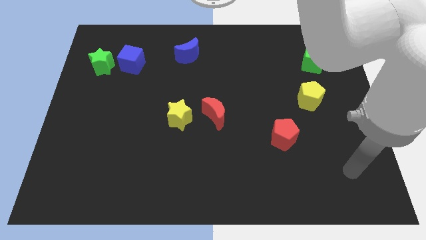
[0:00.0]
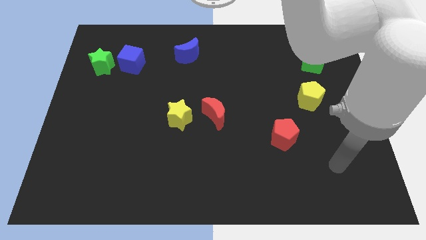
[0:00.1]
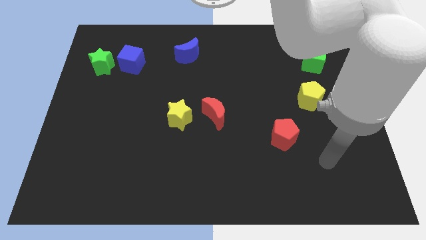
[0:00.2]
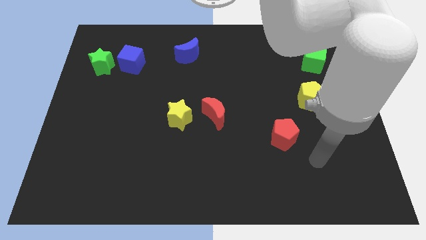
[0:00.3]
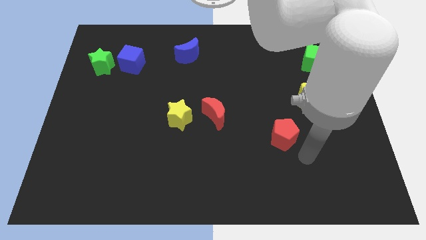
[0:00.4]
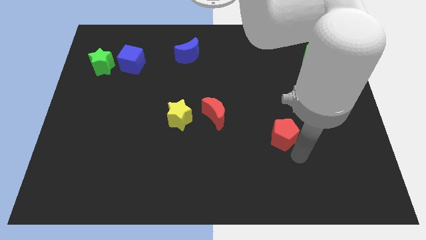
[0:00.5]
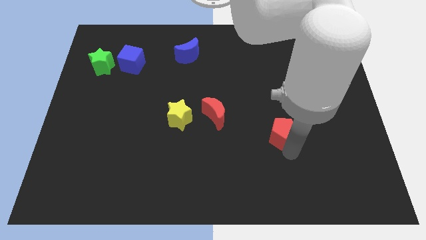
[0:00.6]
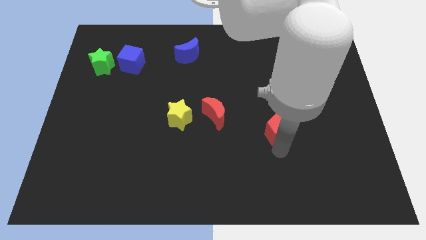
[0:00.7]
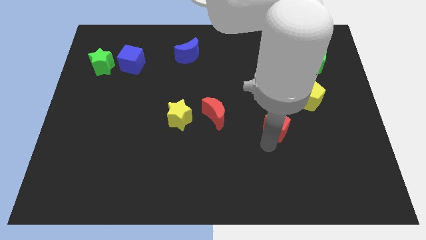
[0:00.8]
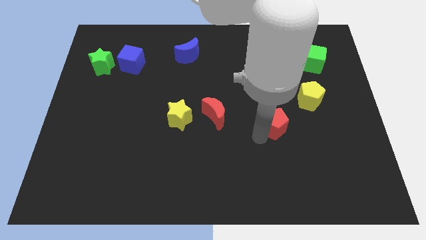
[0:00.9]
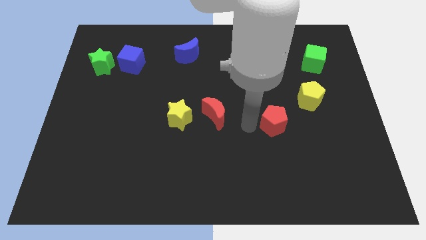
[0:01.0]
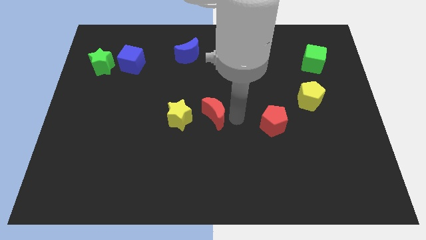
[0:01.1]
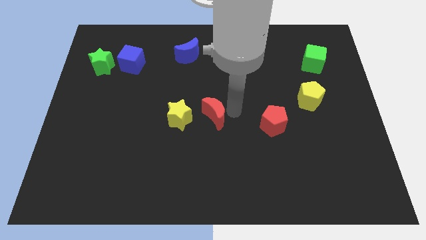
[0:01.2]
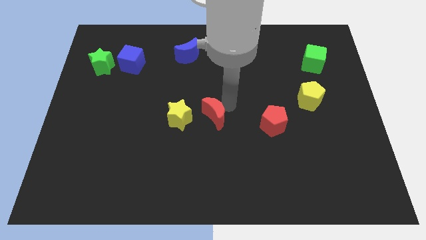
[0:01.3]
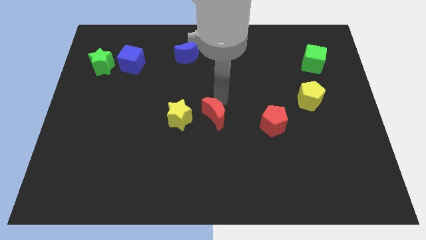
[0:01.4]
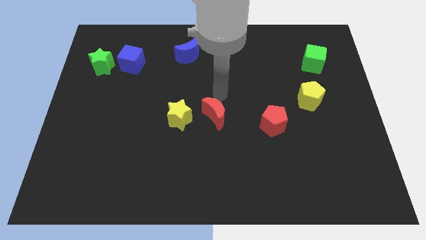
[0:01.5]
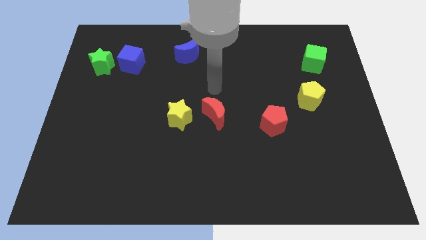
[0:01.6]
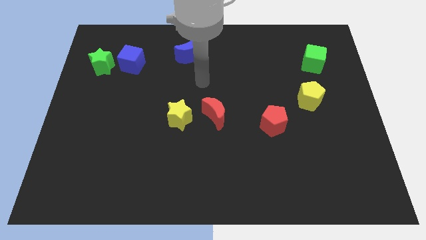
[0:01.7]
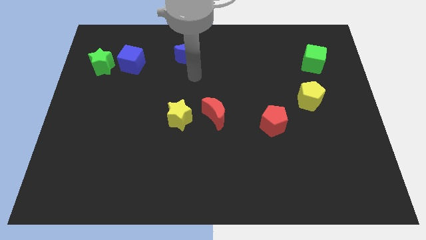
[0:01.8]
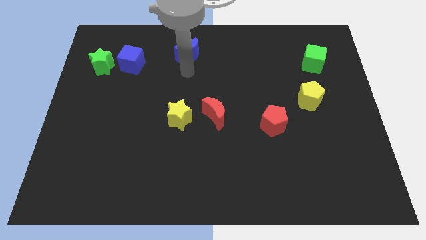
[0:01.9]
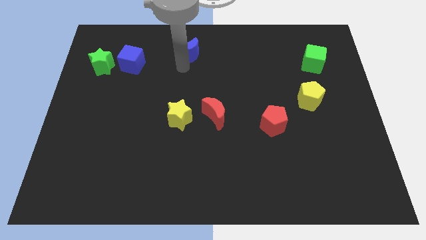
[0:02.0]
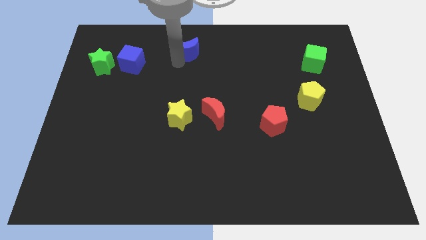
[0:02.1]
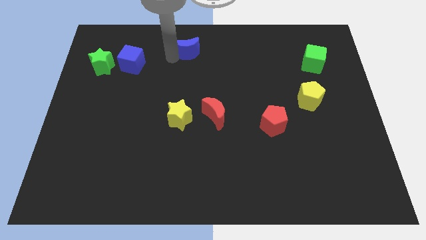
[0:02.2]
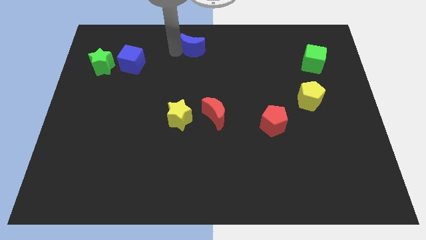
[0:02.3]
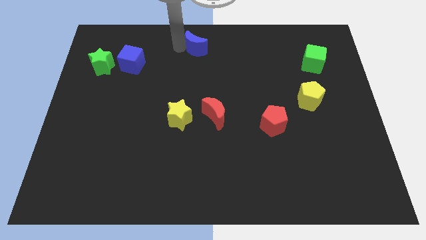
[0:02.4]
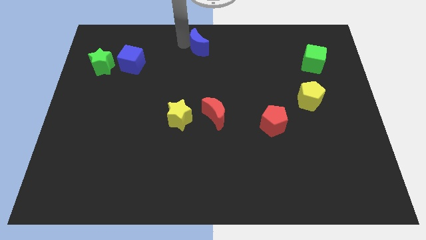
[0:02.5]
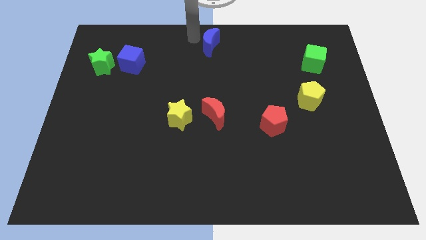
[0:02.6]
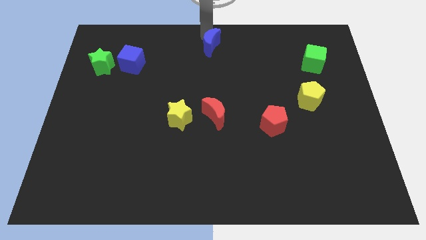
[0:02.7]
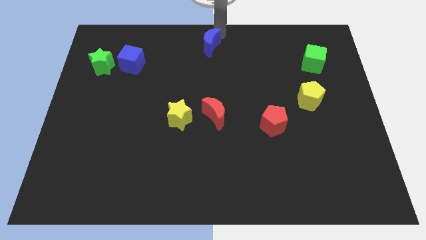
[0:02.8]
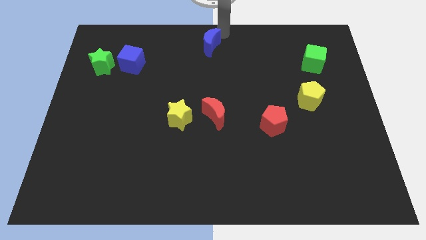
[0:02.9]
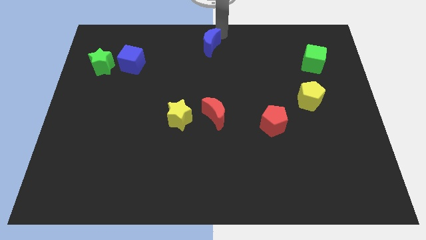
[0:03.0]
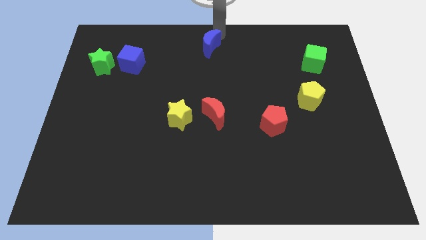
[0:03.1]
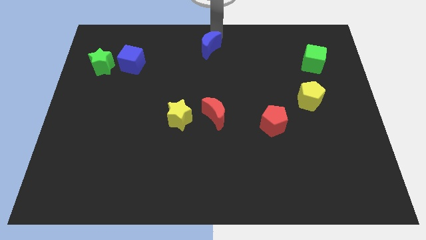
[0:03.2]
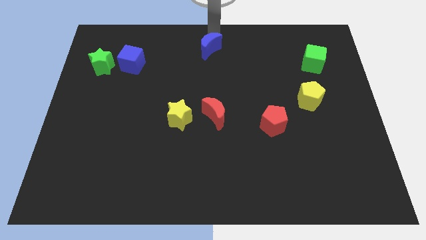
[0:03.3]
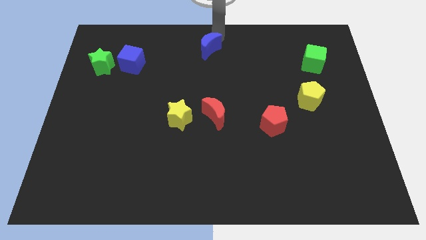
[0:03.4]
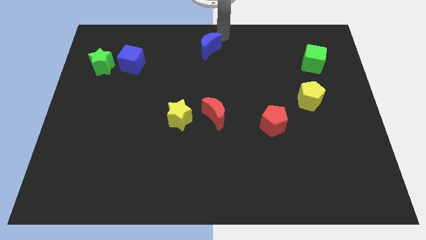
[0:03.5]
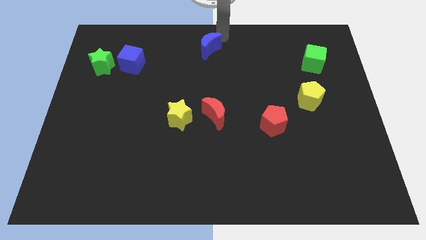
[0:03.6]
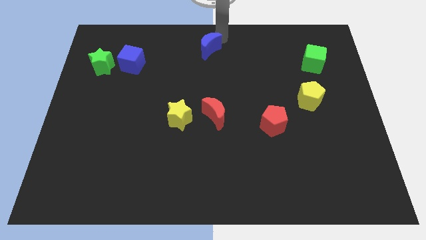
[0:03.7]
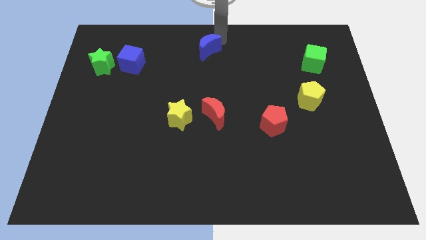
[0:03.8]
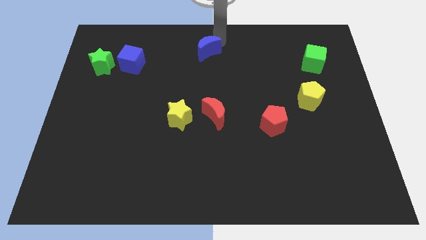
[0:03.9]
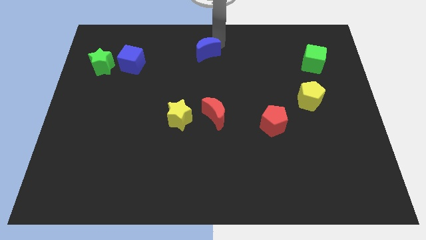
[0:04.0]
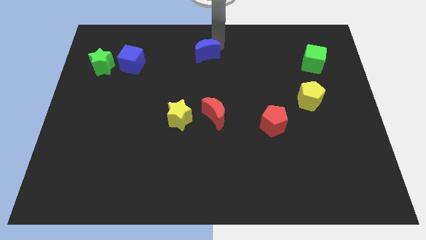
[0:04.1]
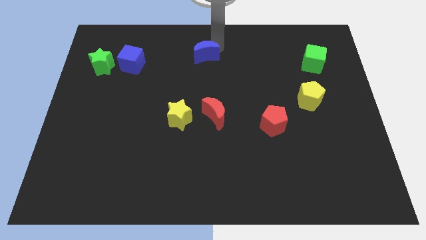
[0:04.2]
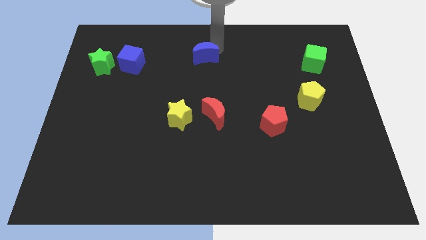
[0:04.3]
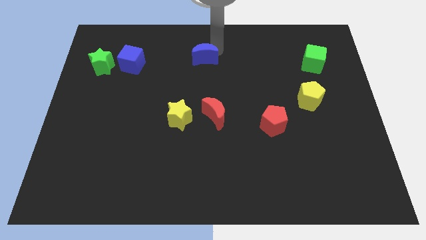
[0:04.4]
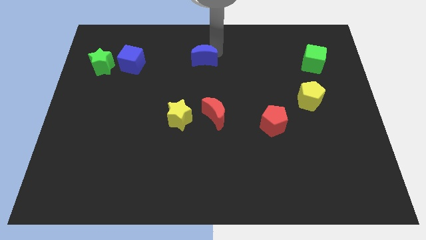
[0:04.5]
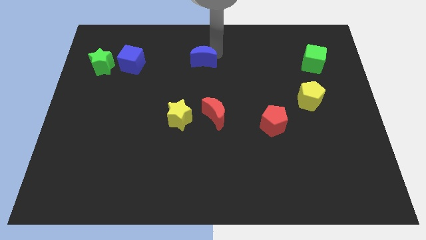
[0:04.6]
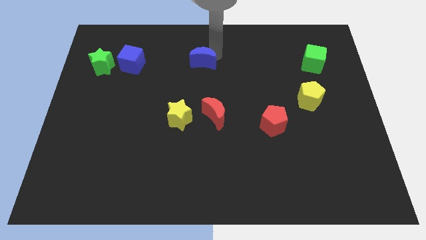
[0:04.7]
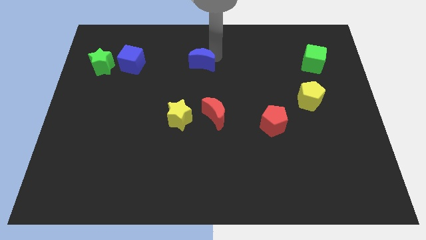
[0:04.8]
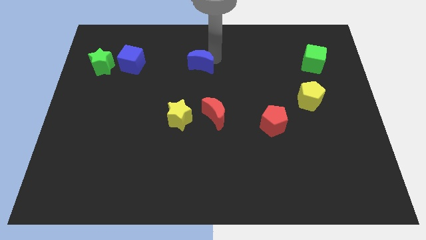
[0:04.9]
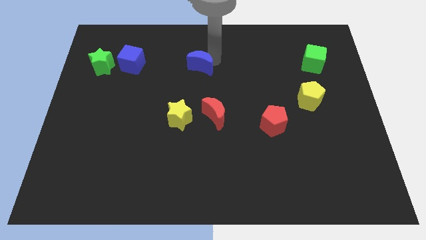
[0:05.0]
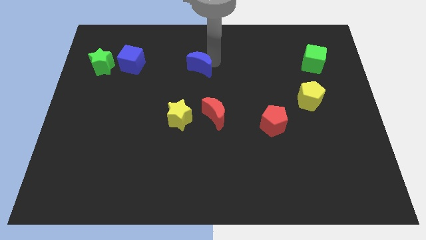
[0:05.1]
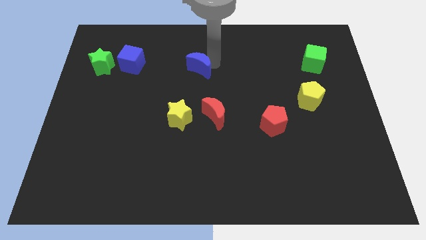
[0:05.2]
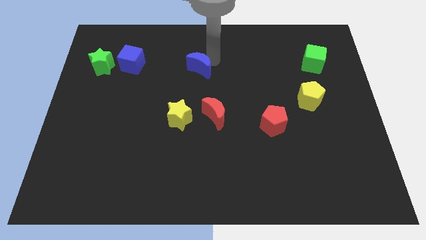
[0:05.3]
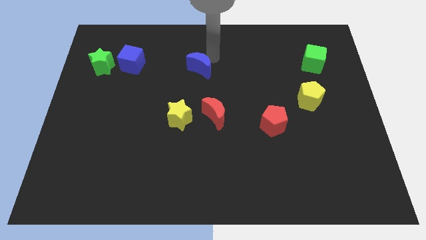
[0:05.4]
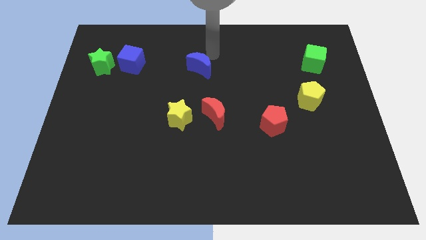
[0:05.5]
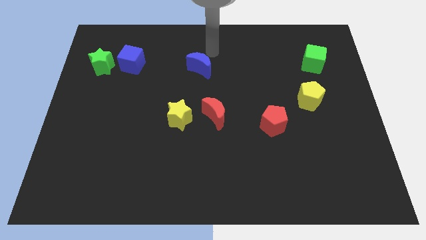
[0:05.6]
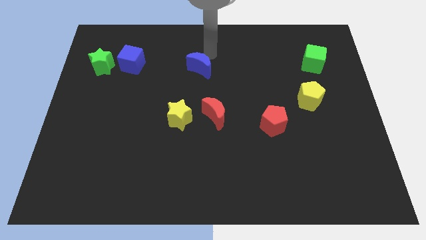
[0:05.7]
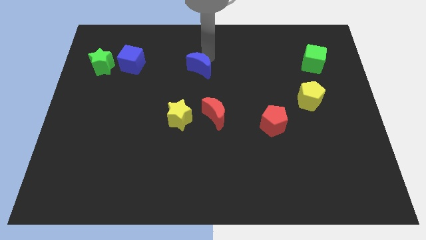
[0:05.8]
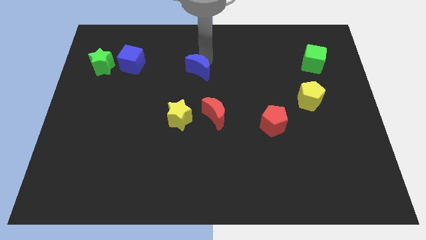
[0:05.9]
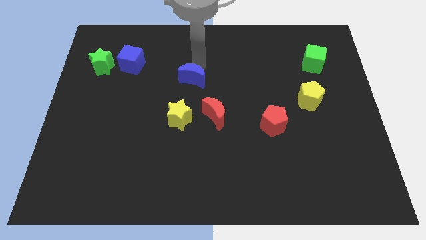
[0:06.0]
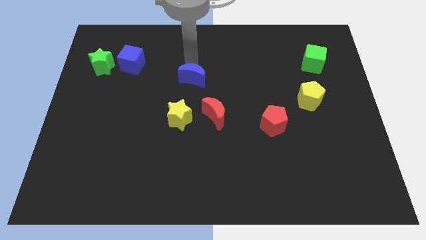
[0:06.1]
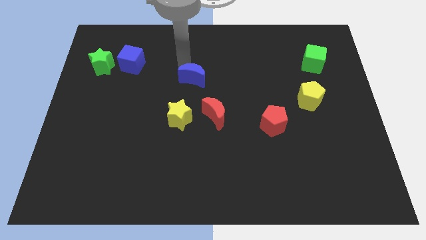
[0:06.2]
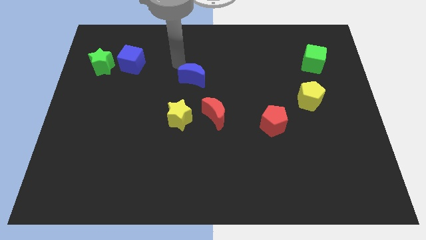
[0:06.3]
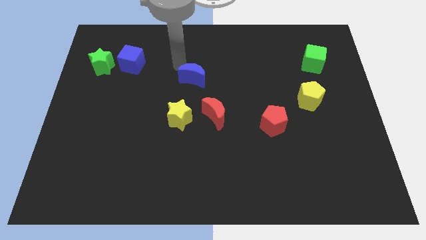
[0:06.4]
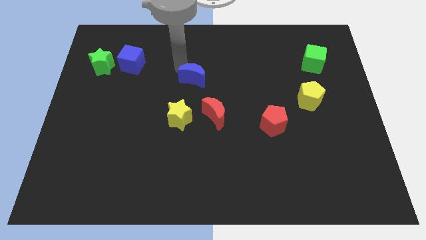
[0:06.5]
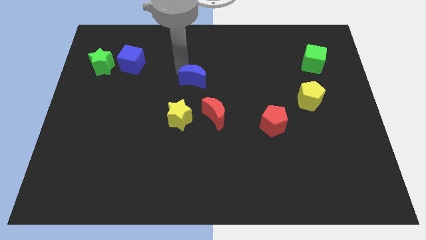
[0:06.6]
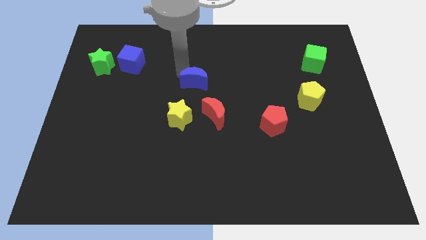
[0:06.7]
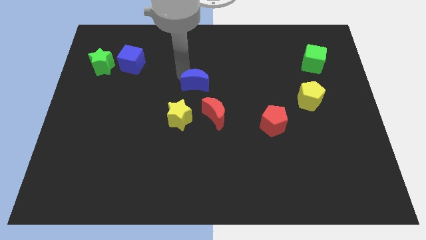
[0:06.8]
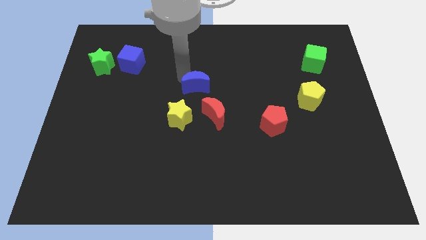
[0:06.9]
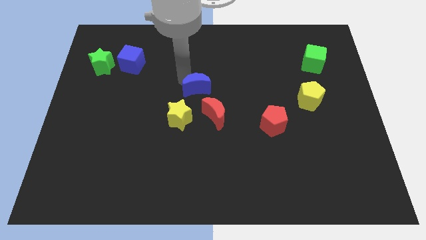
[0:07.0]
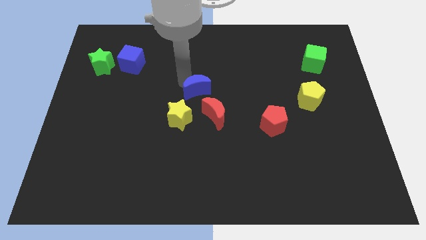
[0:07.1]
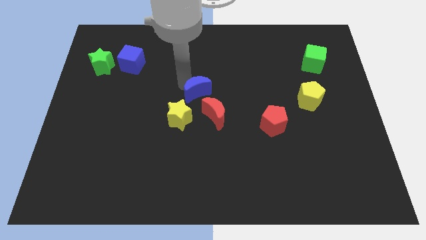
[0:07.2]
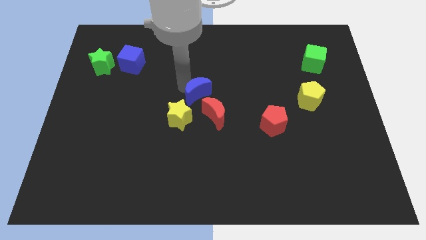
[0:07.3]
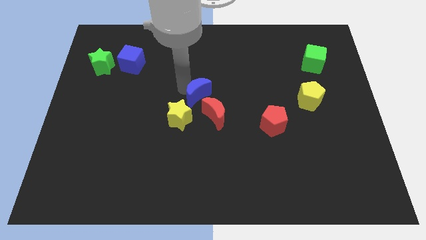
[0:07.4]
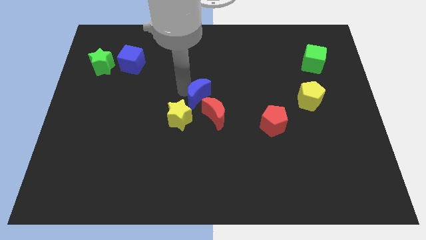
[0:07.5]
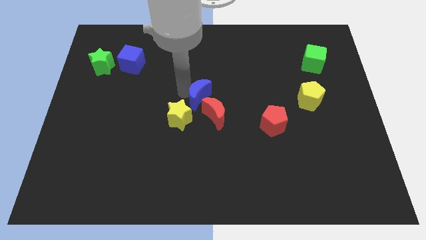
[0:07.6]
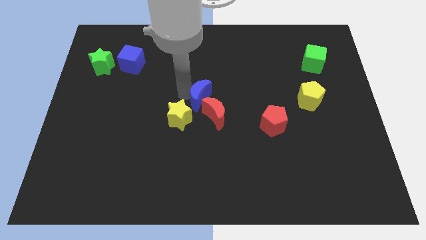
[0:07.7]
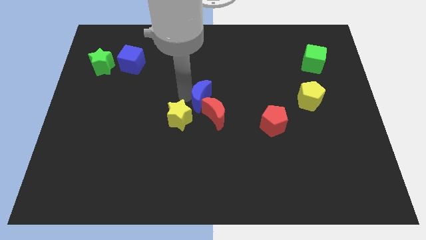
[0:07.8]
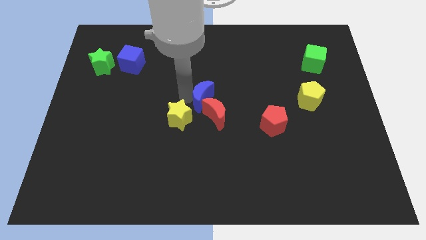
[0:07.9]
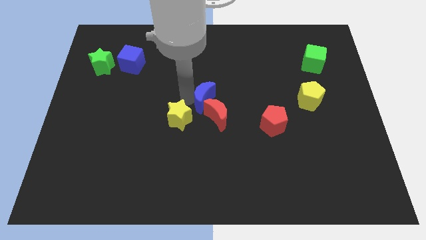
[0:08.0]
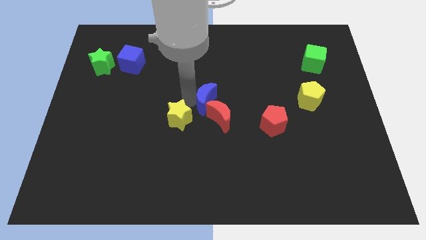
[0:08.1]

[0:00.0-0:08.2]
slide the blue moon just right of the yellow star
